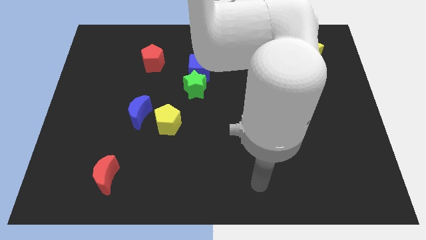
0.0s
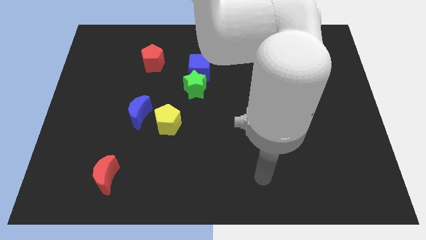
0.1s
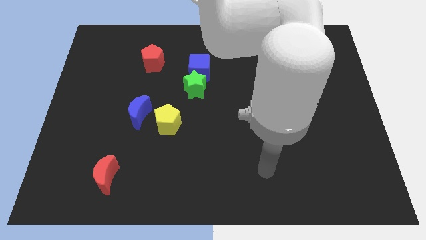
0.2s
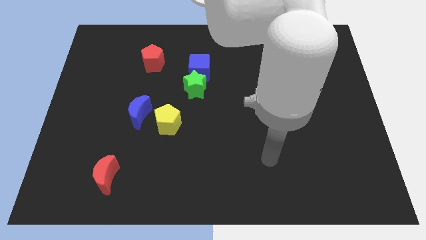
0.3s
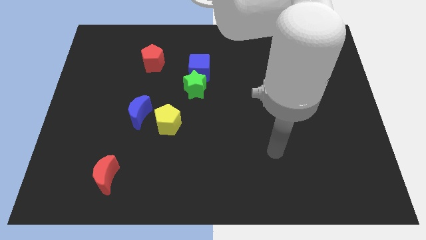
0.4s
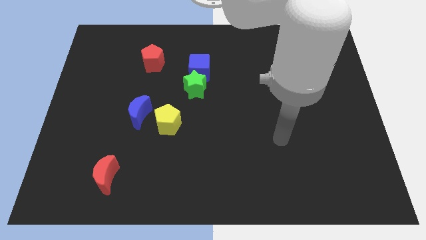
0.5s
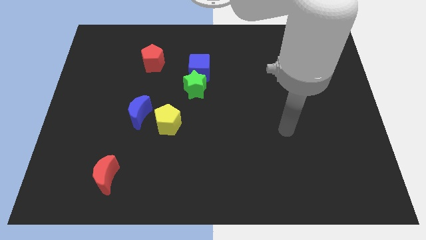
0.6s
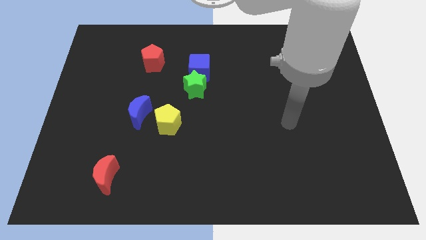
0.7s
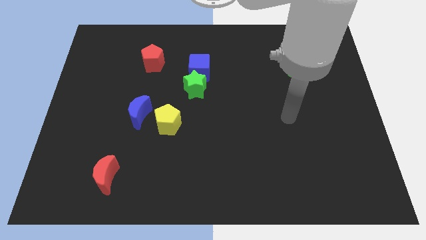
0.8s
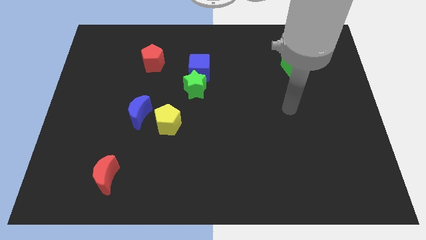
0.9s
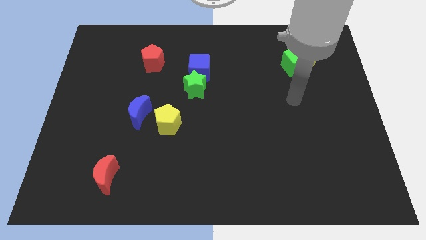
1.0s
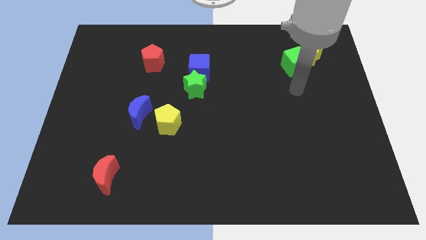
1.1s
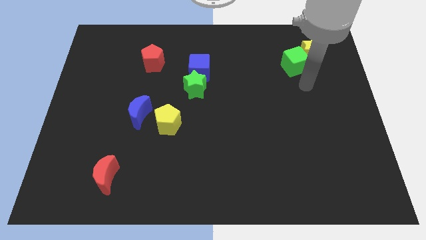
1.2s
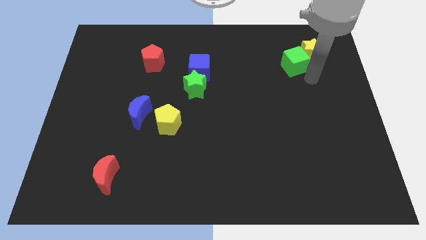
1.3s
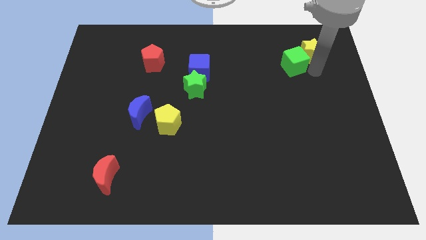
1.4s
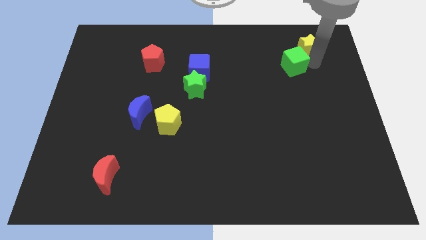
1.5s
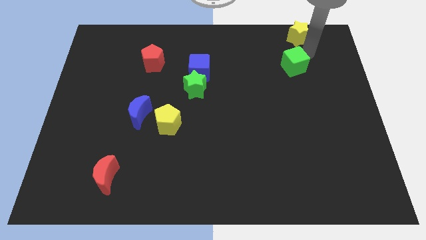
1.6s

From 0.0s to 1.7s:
separate the green cube from the yellow star

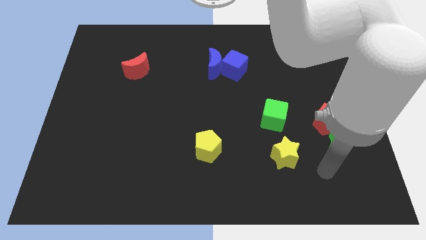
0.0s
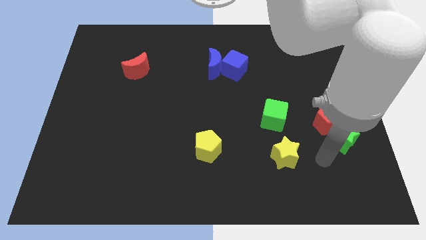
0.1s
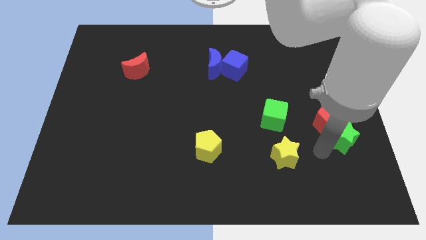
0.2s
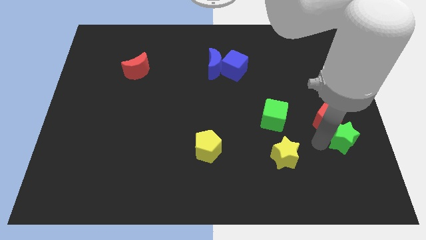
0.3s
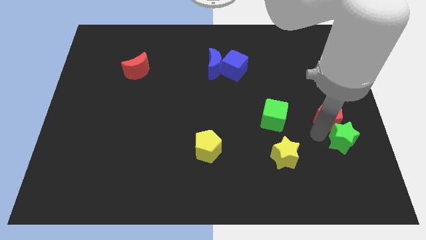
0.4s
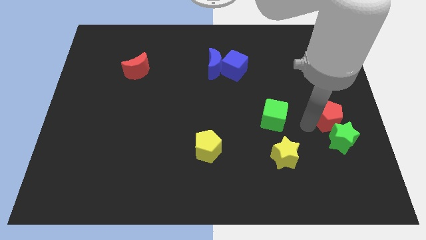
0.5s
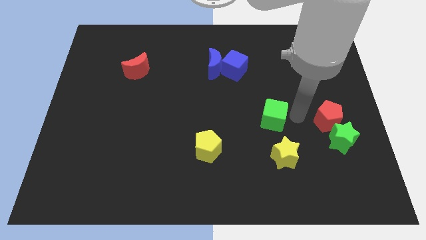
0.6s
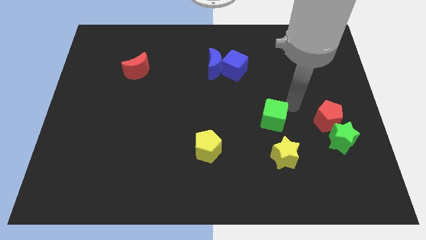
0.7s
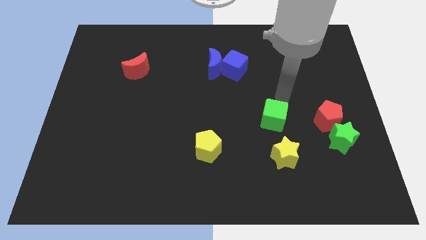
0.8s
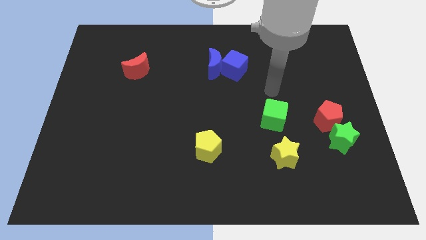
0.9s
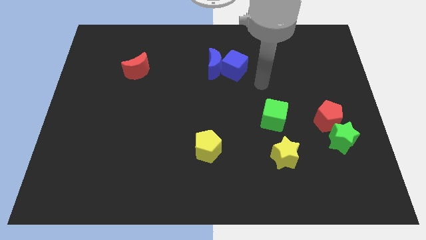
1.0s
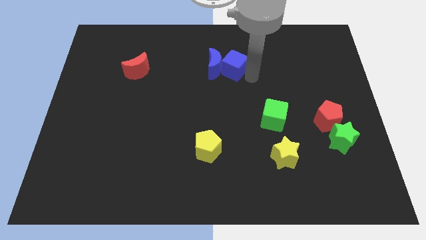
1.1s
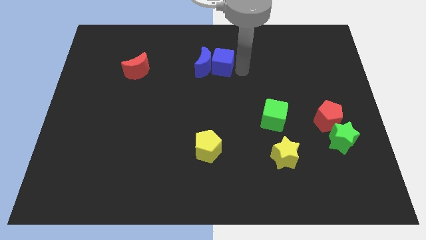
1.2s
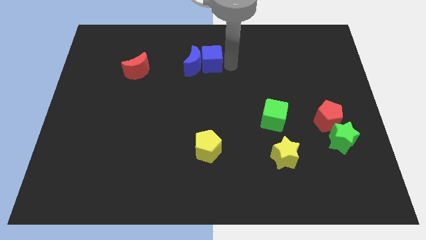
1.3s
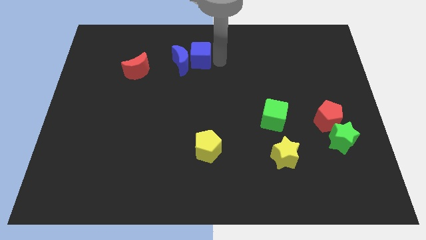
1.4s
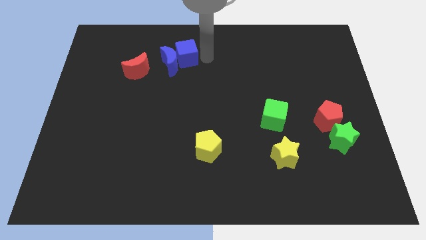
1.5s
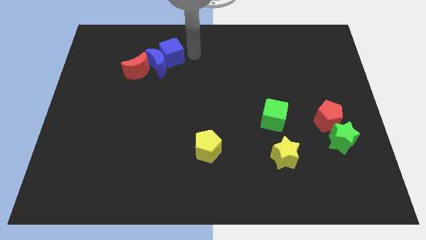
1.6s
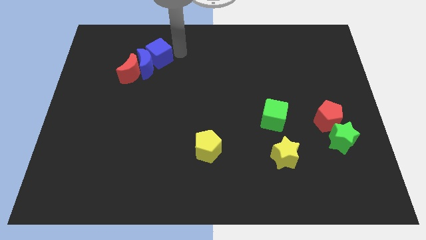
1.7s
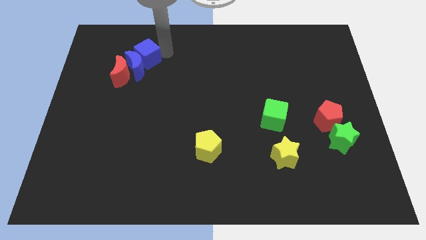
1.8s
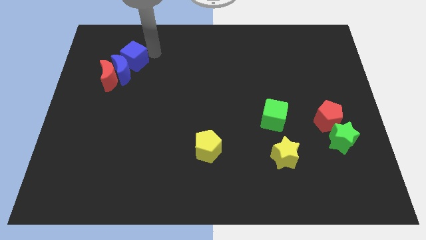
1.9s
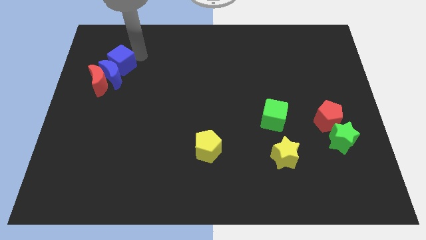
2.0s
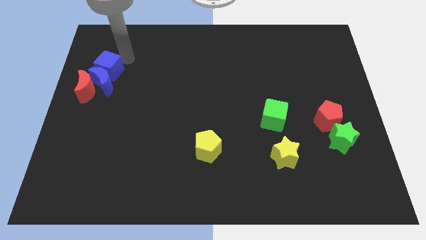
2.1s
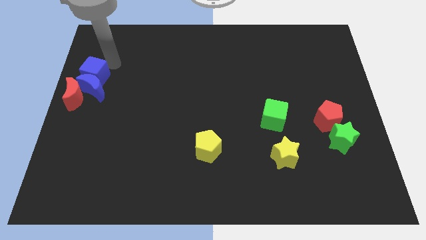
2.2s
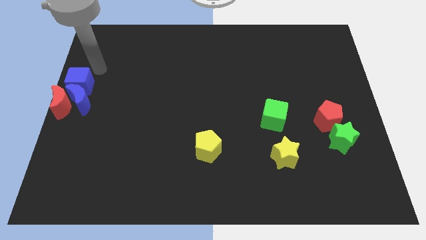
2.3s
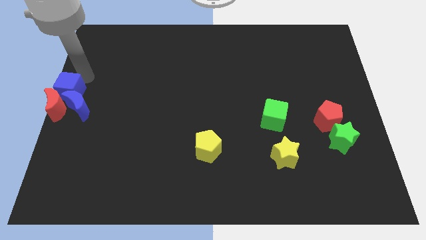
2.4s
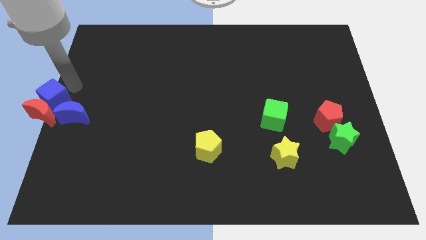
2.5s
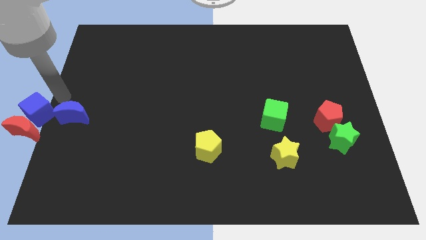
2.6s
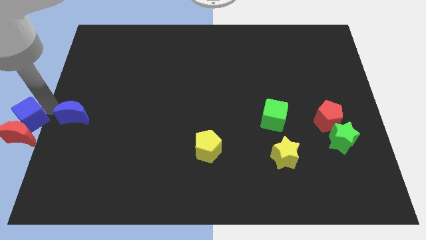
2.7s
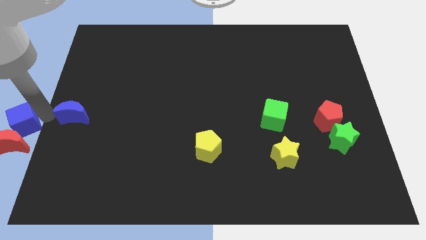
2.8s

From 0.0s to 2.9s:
separate the blue moon from the blue cube

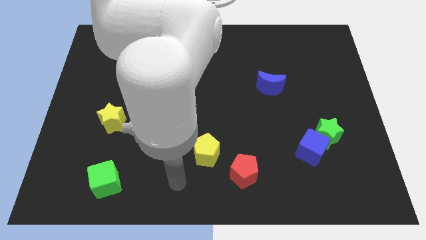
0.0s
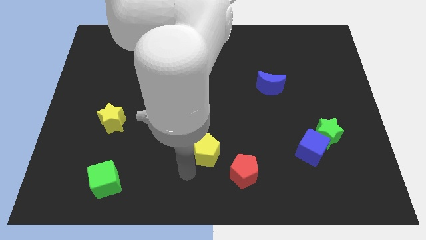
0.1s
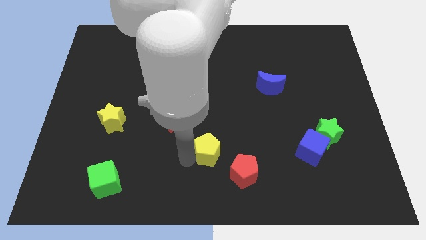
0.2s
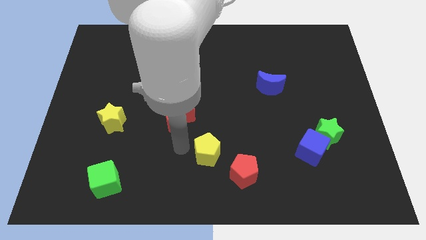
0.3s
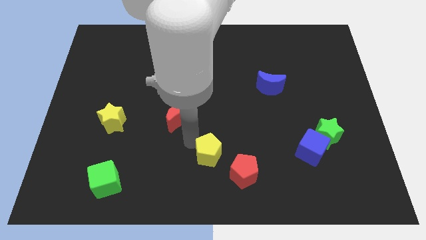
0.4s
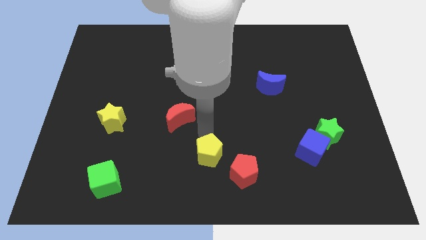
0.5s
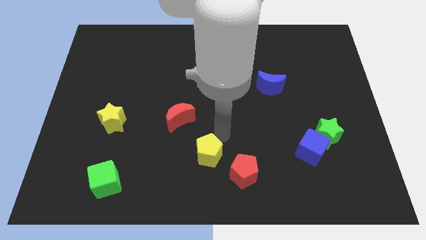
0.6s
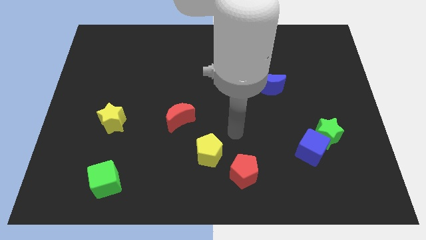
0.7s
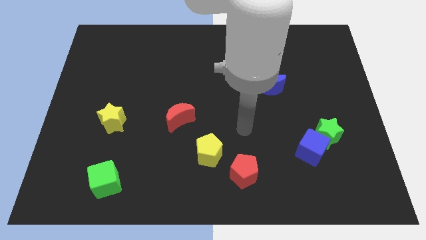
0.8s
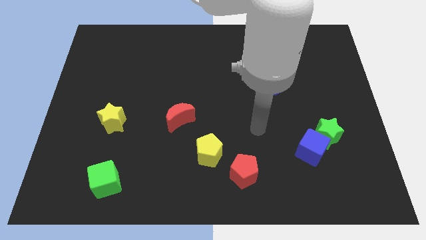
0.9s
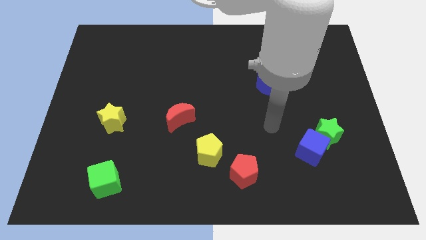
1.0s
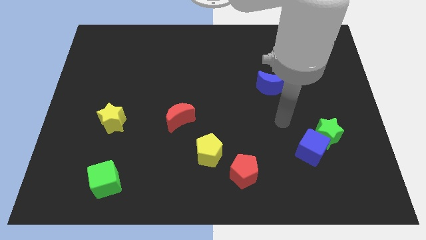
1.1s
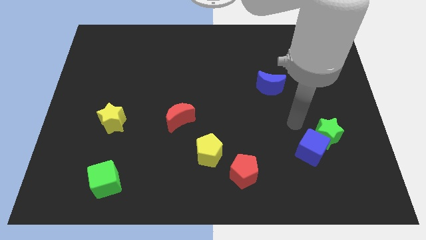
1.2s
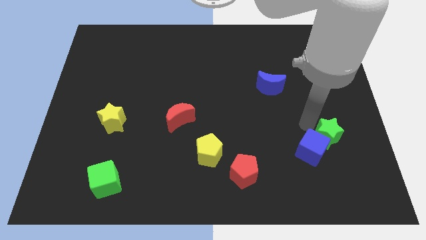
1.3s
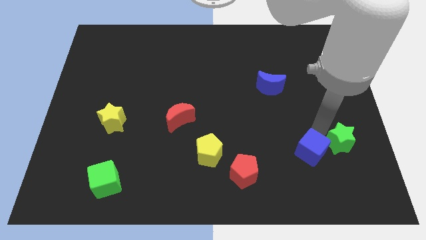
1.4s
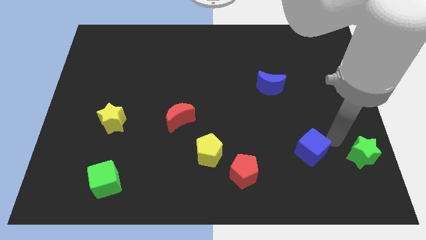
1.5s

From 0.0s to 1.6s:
pull the blue cube apart from the green star

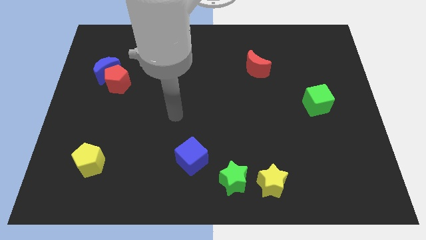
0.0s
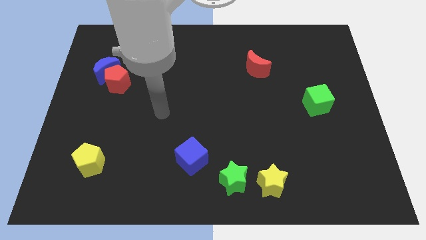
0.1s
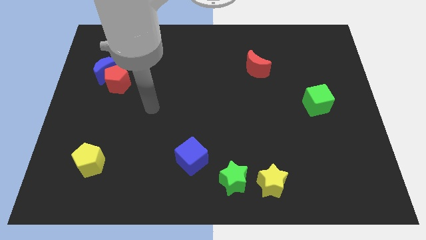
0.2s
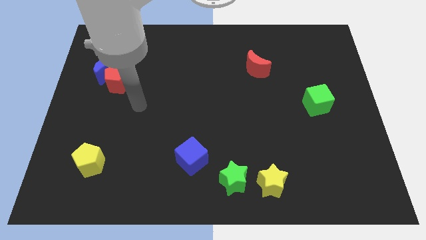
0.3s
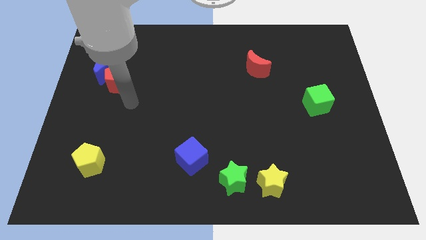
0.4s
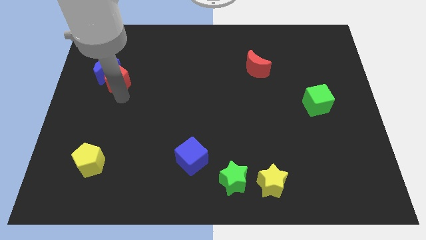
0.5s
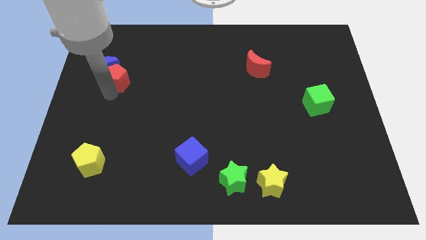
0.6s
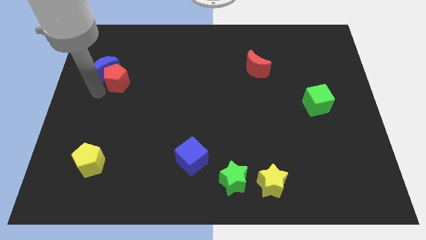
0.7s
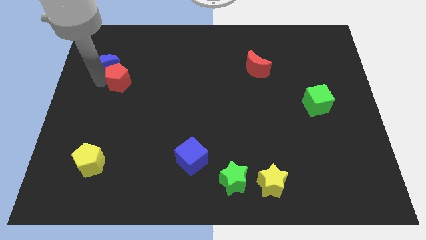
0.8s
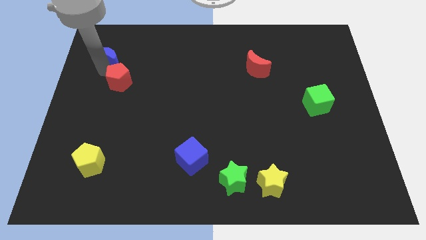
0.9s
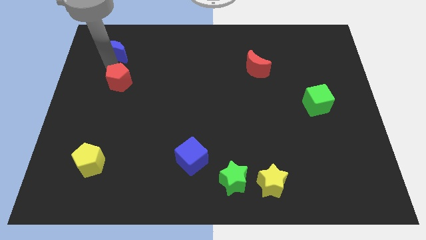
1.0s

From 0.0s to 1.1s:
separate the red pentagon from the blue moon

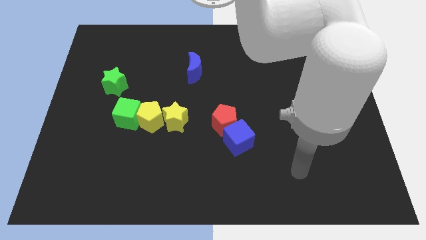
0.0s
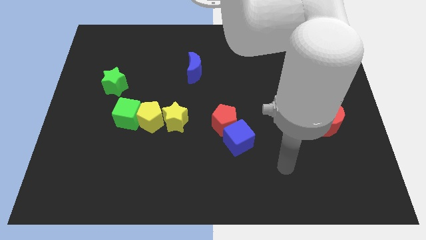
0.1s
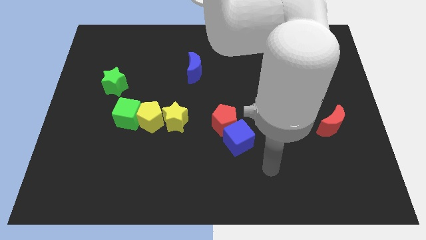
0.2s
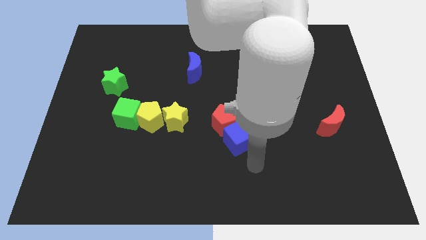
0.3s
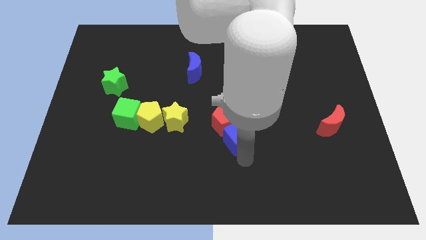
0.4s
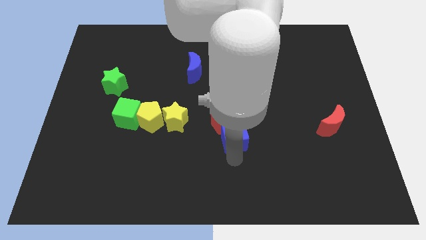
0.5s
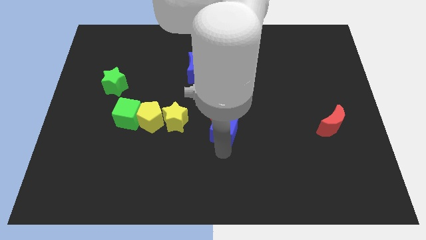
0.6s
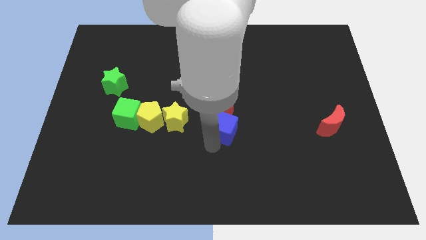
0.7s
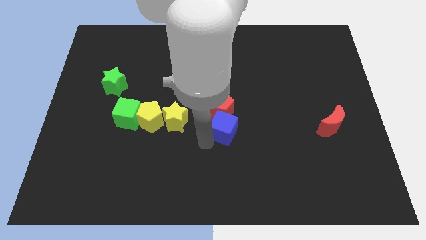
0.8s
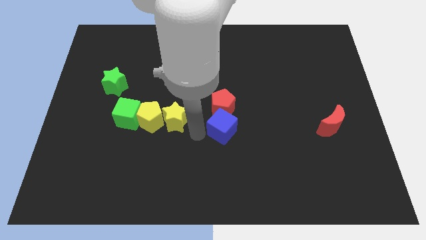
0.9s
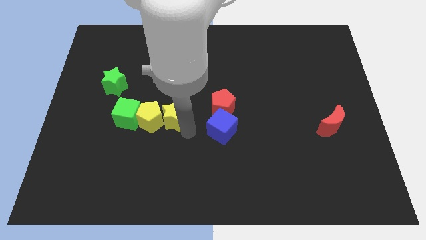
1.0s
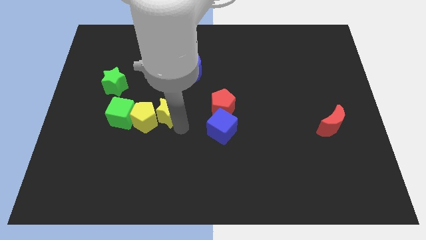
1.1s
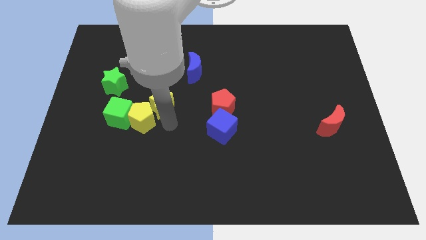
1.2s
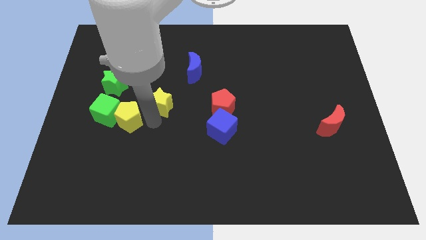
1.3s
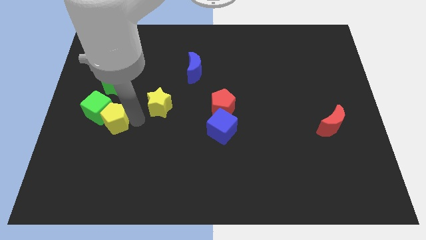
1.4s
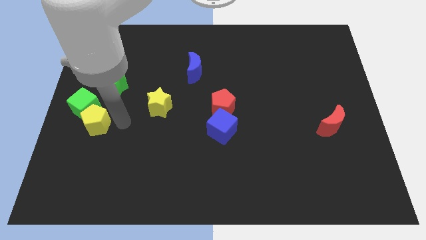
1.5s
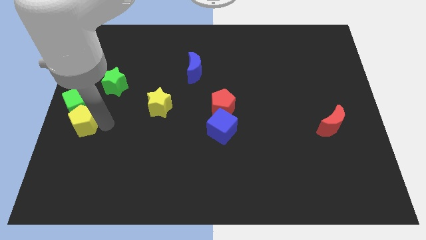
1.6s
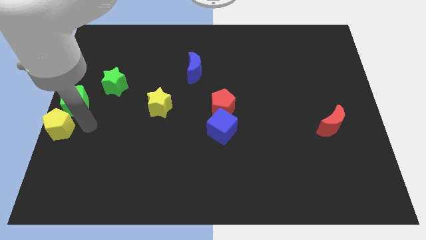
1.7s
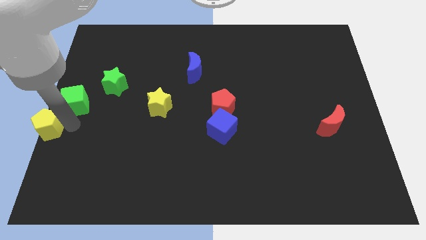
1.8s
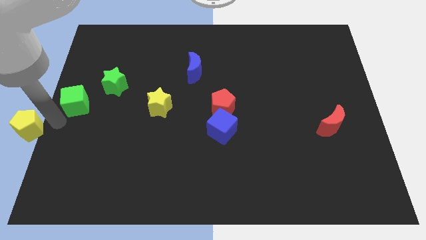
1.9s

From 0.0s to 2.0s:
separate the green cube from the yellow pentagon
